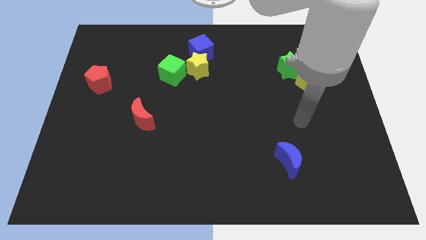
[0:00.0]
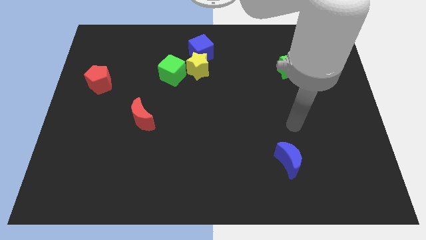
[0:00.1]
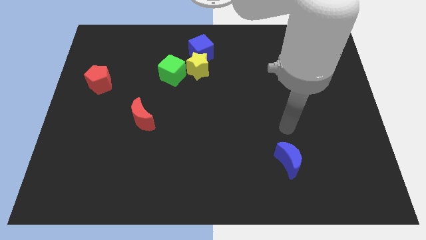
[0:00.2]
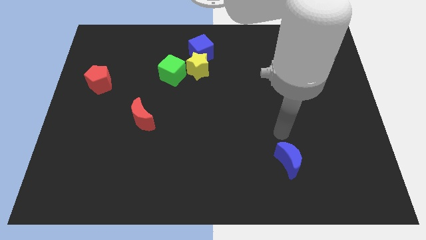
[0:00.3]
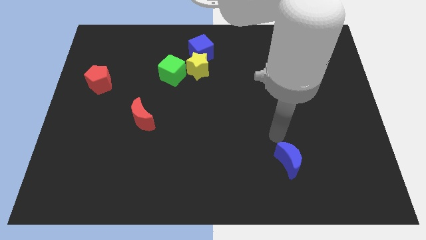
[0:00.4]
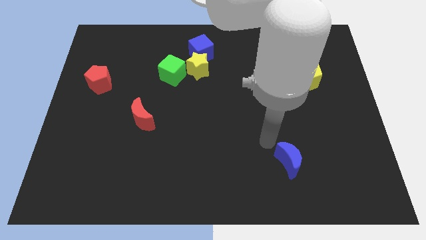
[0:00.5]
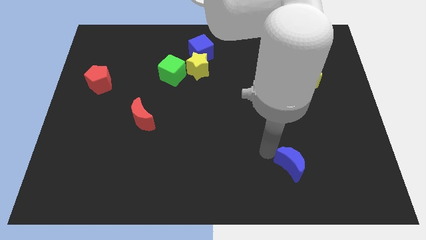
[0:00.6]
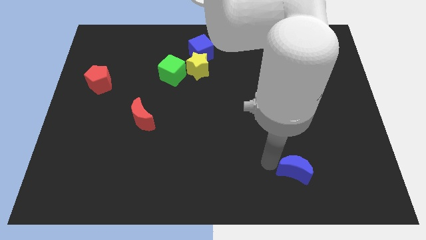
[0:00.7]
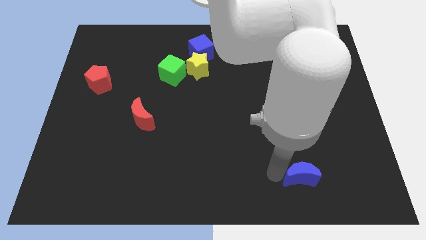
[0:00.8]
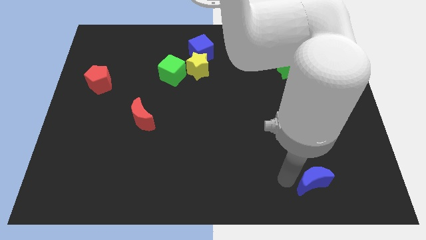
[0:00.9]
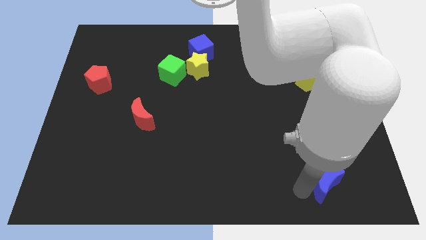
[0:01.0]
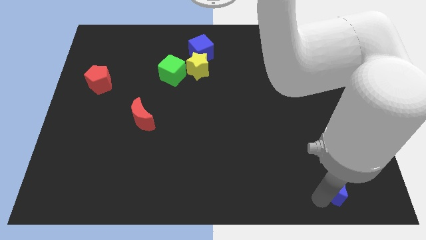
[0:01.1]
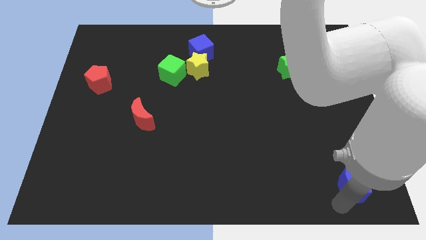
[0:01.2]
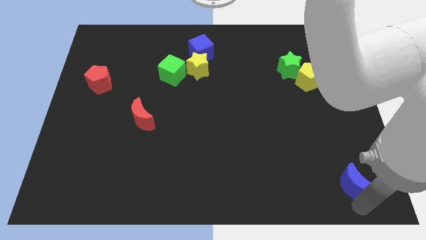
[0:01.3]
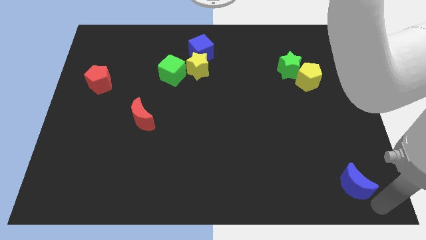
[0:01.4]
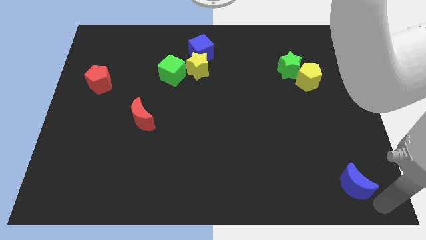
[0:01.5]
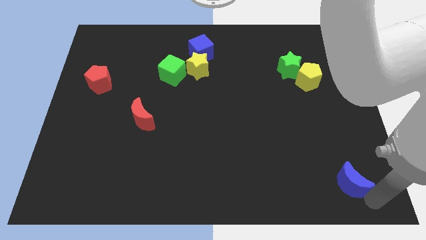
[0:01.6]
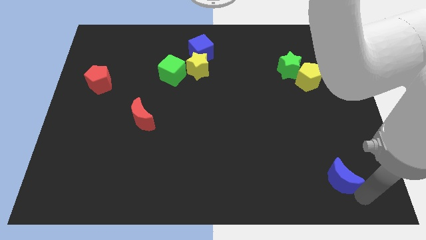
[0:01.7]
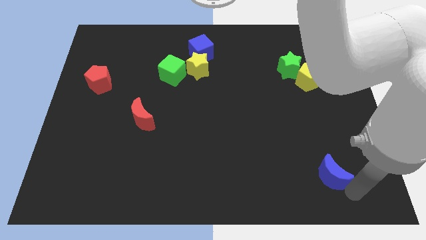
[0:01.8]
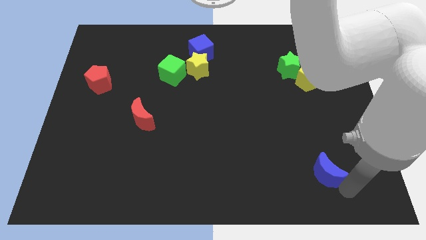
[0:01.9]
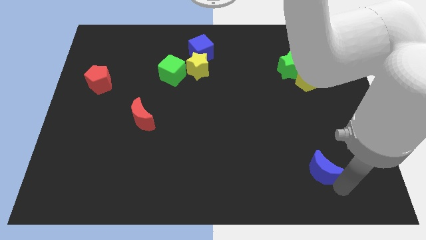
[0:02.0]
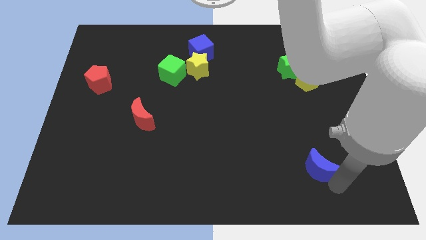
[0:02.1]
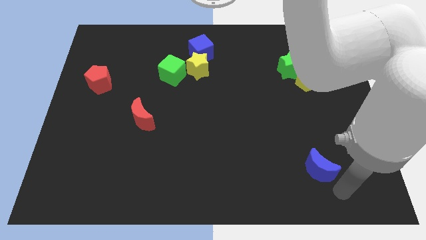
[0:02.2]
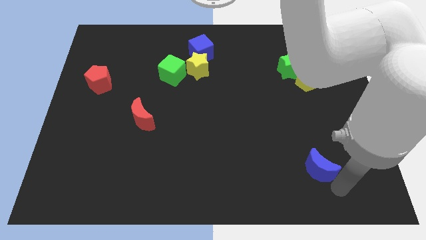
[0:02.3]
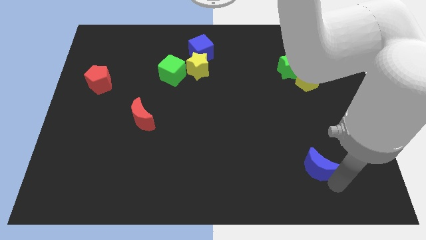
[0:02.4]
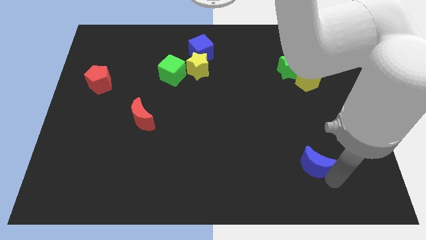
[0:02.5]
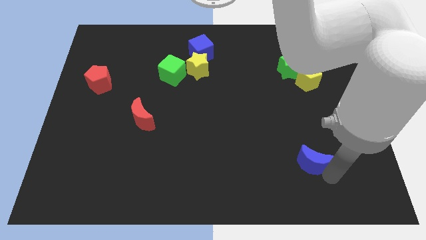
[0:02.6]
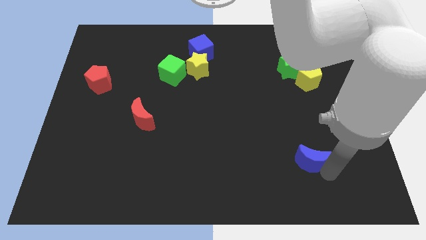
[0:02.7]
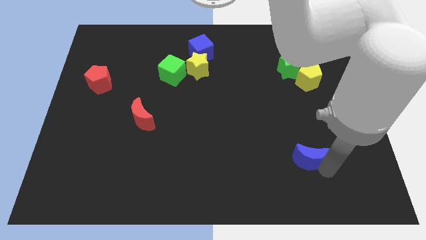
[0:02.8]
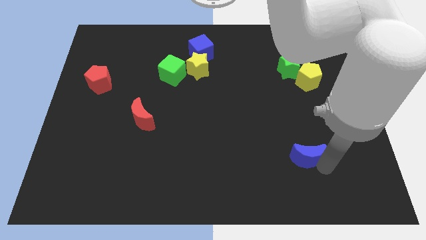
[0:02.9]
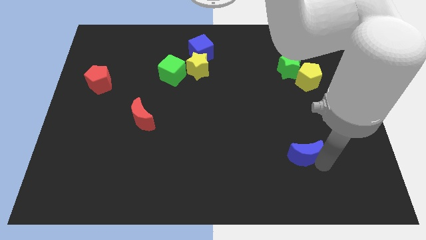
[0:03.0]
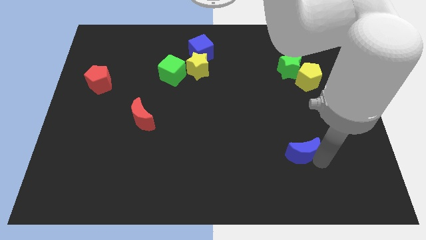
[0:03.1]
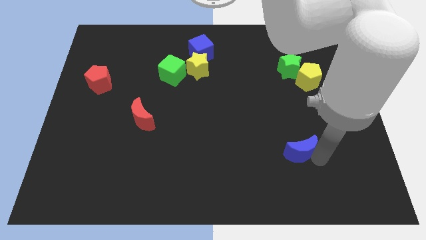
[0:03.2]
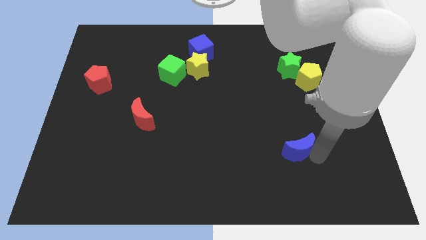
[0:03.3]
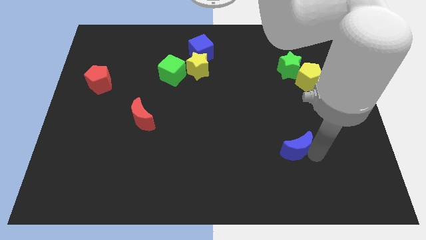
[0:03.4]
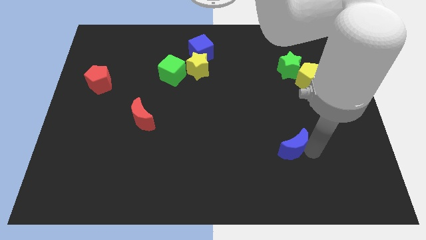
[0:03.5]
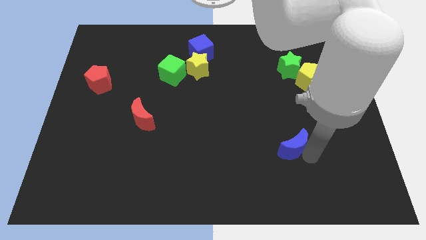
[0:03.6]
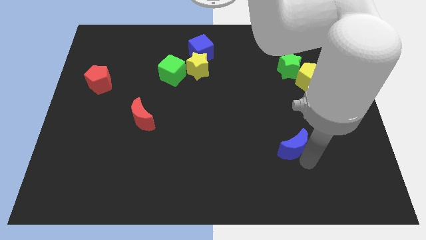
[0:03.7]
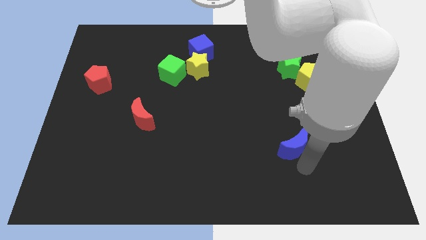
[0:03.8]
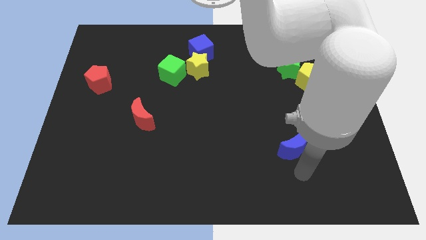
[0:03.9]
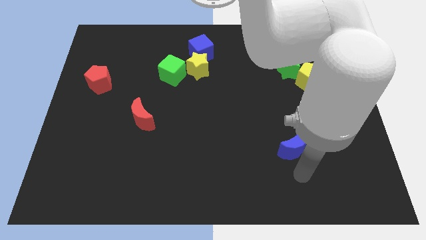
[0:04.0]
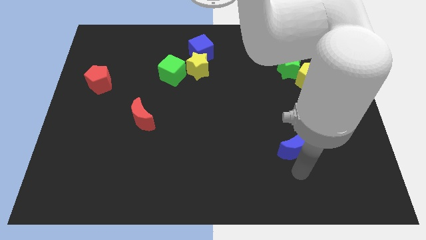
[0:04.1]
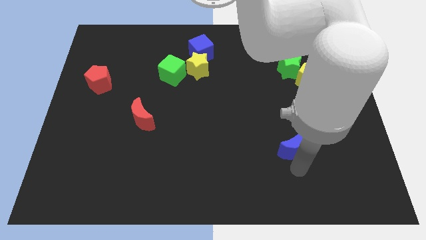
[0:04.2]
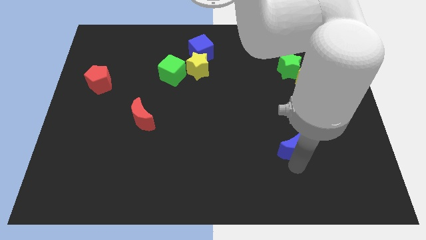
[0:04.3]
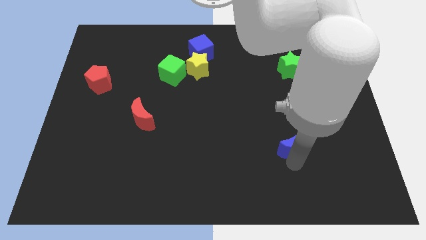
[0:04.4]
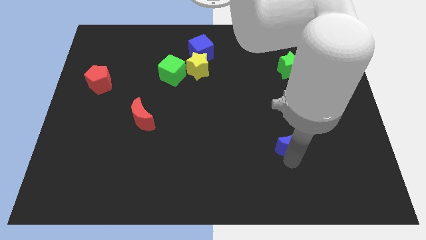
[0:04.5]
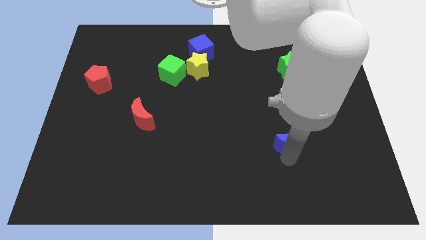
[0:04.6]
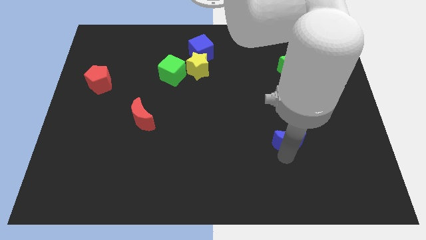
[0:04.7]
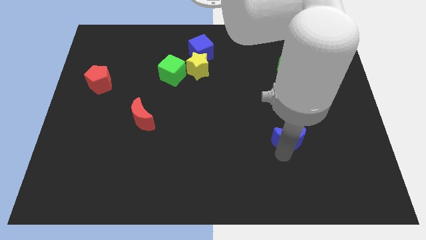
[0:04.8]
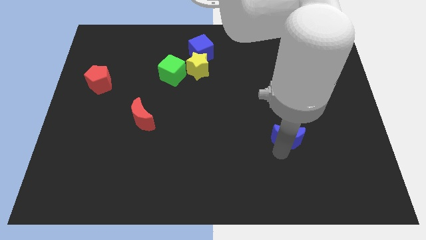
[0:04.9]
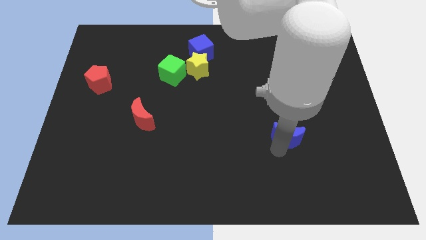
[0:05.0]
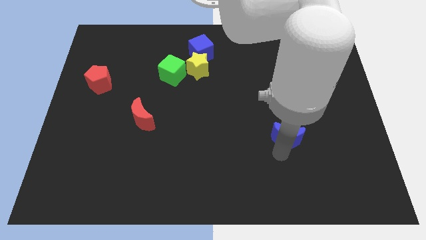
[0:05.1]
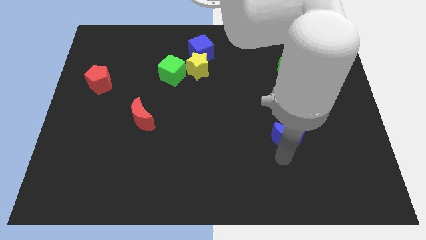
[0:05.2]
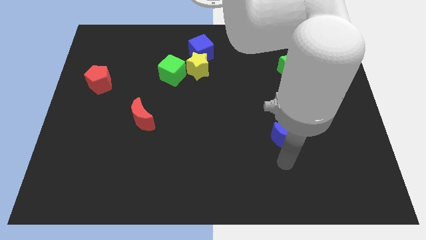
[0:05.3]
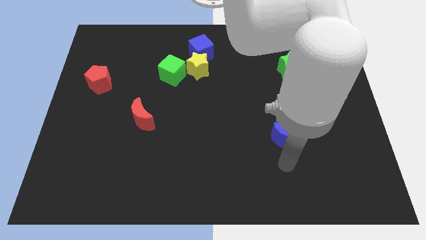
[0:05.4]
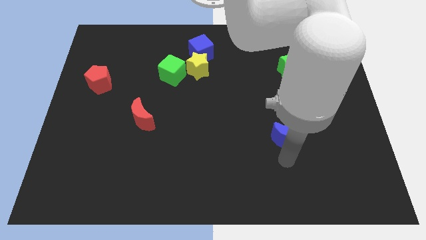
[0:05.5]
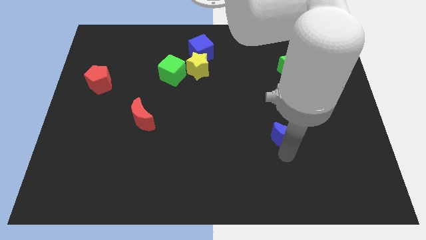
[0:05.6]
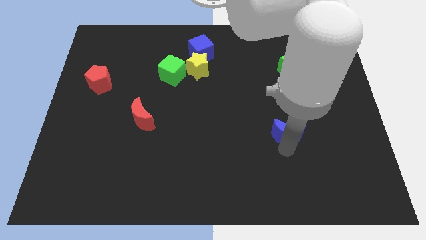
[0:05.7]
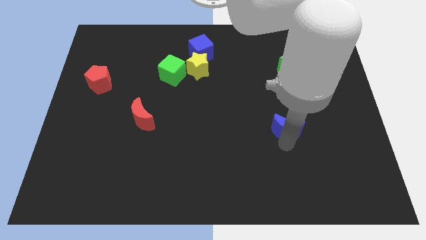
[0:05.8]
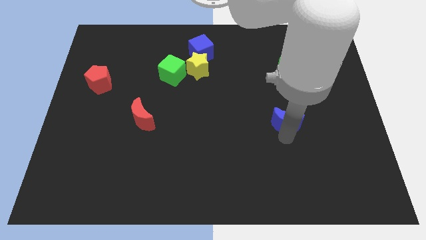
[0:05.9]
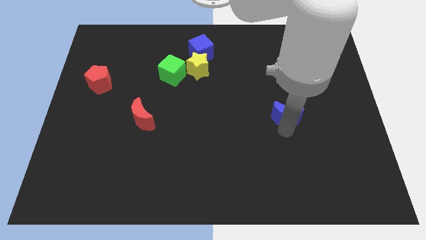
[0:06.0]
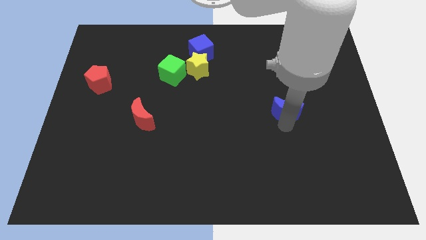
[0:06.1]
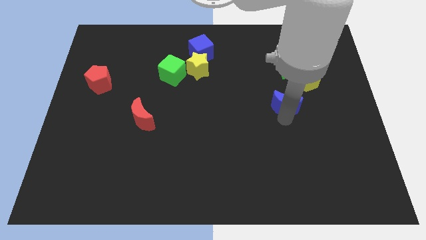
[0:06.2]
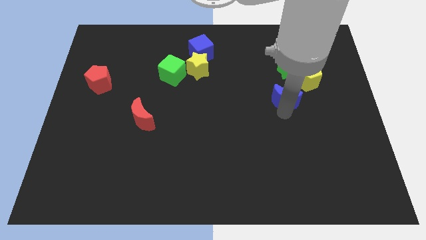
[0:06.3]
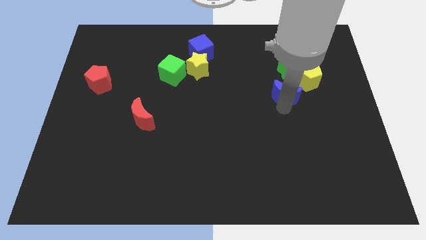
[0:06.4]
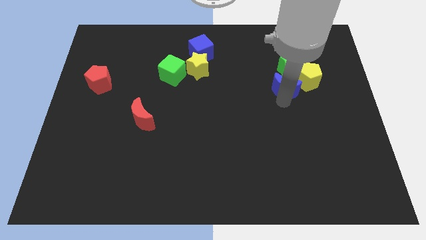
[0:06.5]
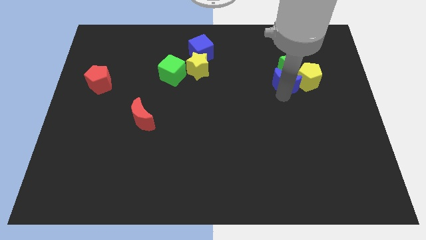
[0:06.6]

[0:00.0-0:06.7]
move the blue moon next to the green star

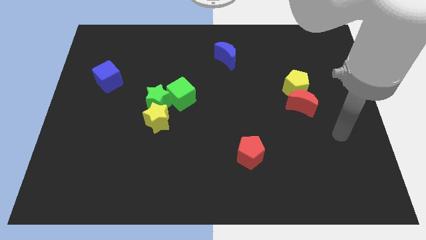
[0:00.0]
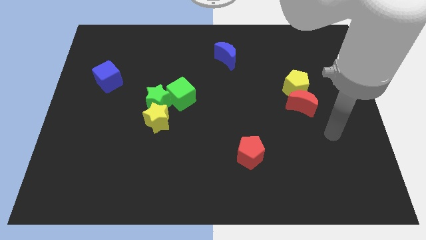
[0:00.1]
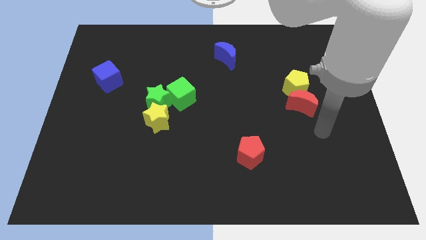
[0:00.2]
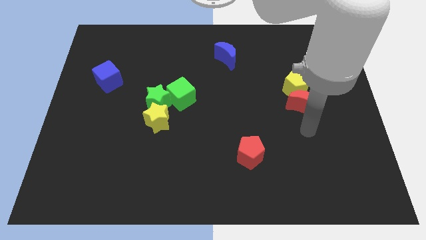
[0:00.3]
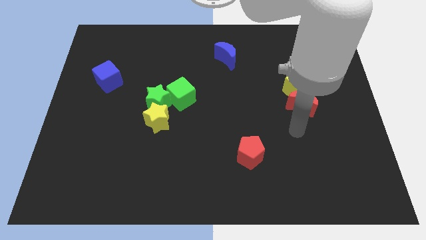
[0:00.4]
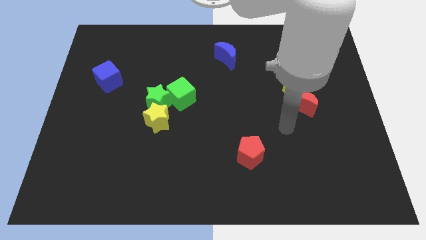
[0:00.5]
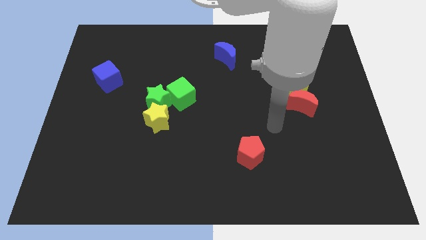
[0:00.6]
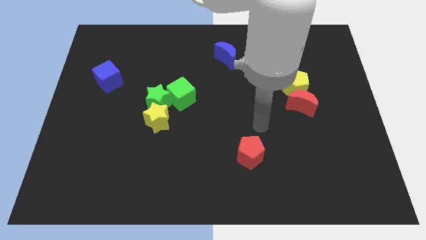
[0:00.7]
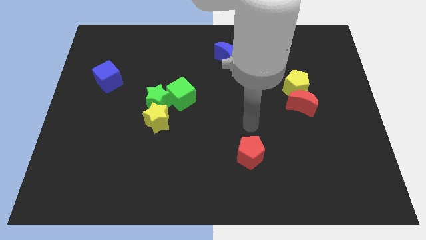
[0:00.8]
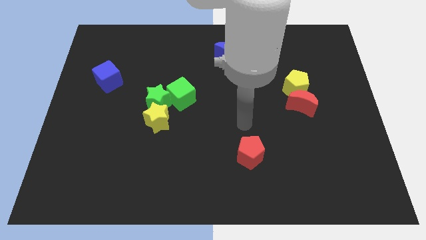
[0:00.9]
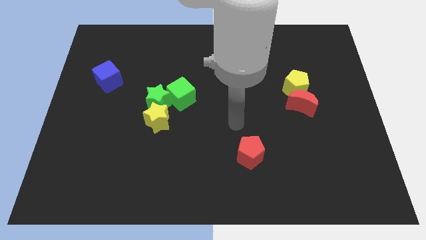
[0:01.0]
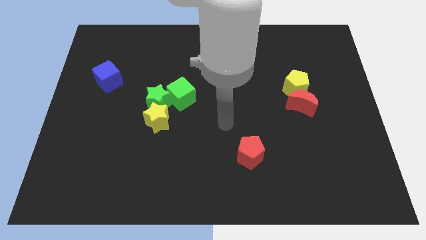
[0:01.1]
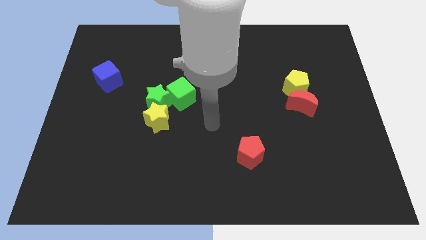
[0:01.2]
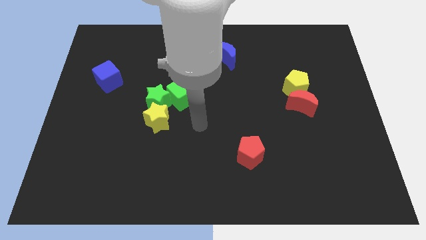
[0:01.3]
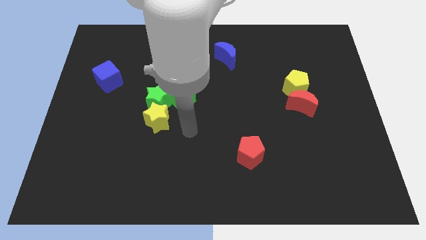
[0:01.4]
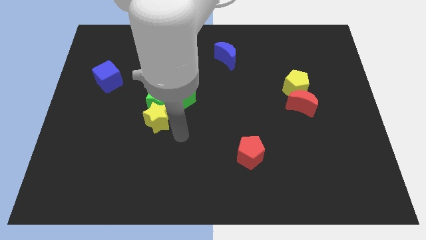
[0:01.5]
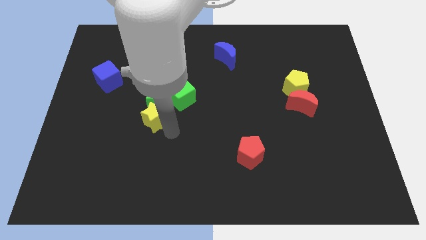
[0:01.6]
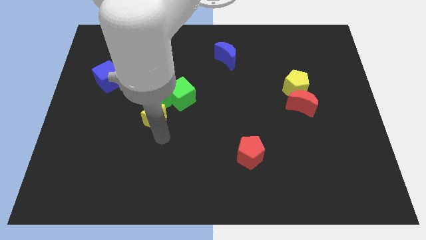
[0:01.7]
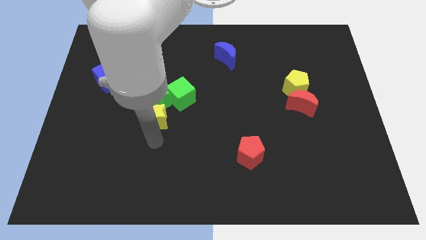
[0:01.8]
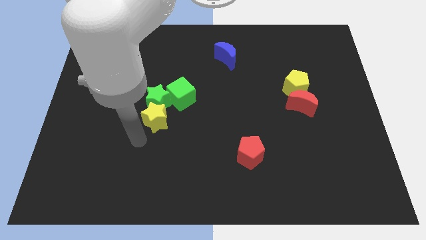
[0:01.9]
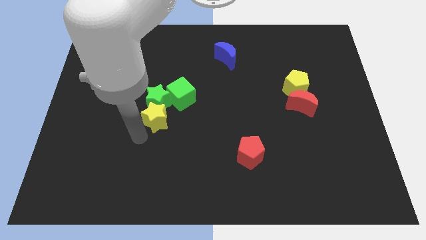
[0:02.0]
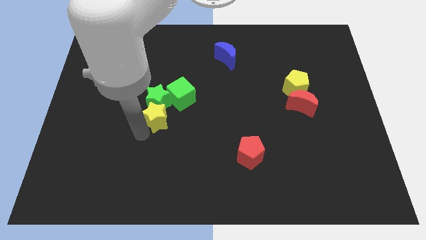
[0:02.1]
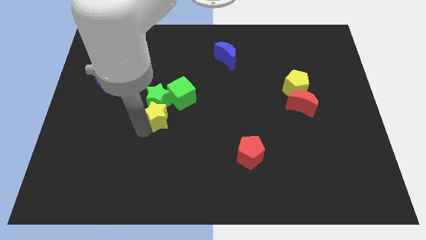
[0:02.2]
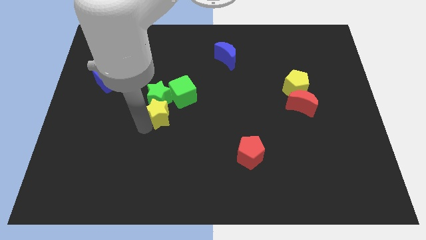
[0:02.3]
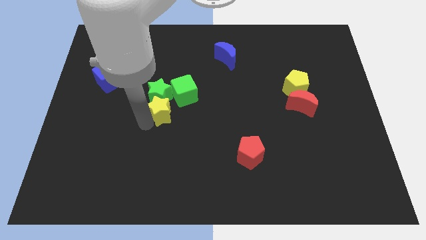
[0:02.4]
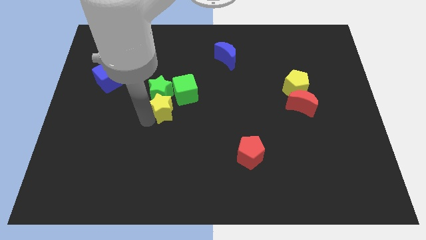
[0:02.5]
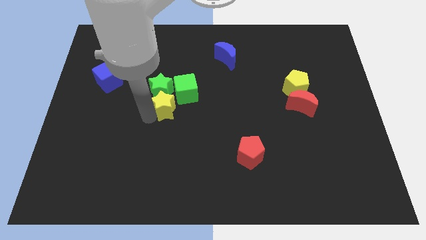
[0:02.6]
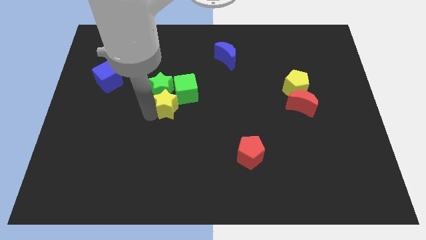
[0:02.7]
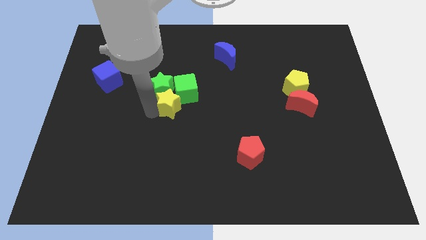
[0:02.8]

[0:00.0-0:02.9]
slide the yellow star towards the green cube
